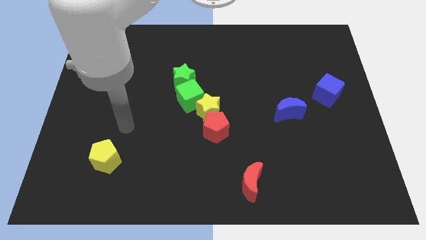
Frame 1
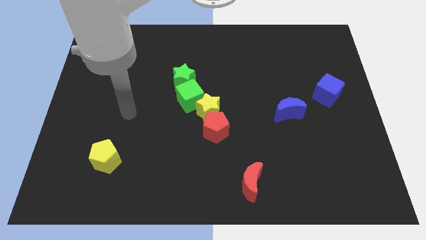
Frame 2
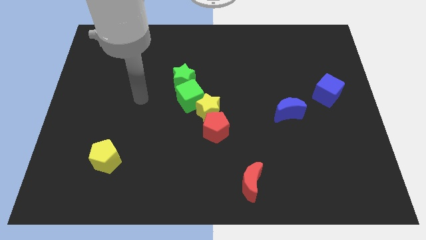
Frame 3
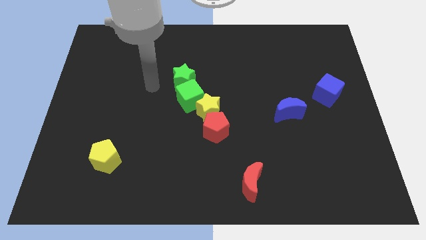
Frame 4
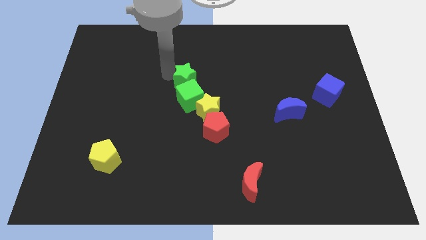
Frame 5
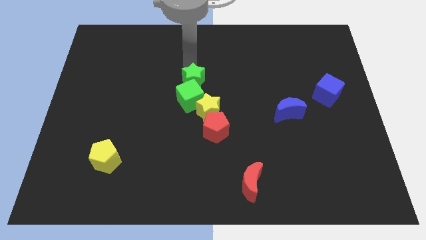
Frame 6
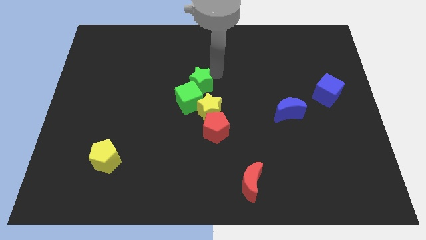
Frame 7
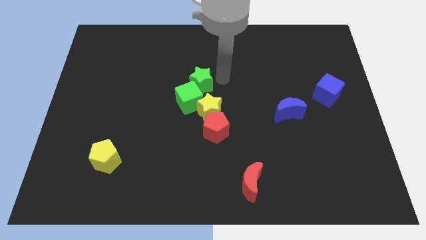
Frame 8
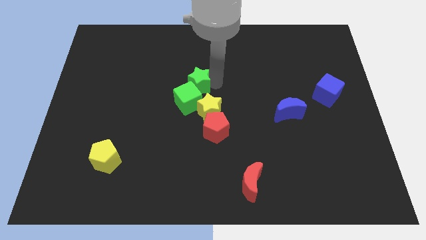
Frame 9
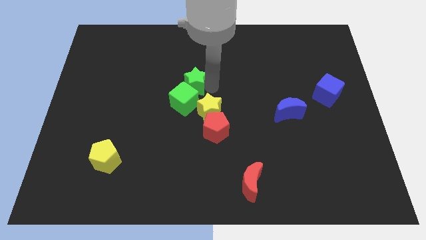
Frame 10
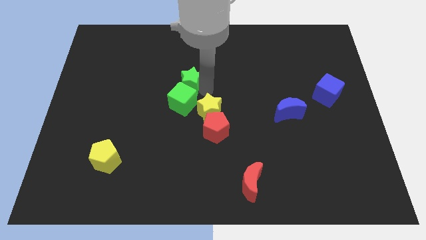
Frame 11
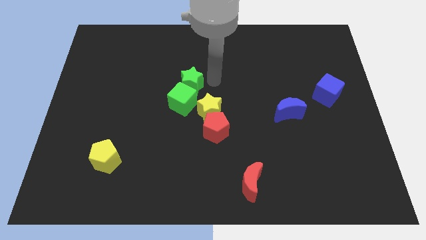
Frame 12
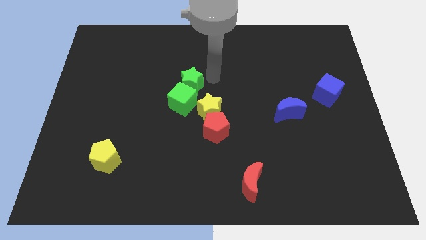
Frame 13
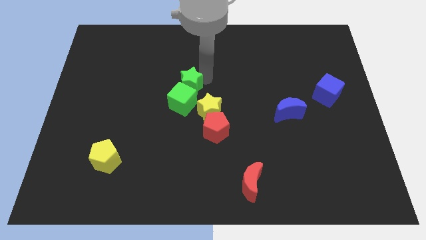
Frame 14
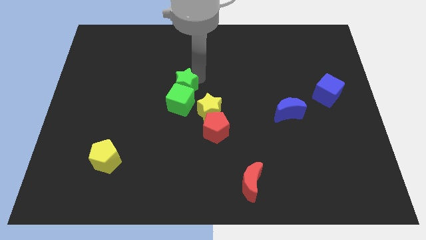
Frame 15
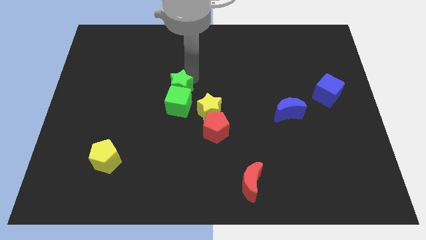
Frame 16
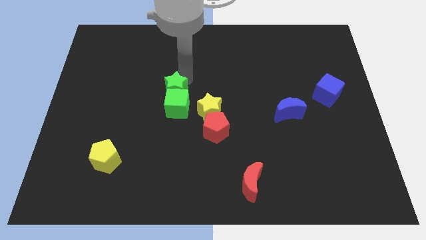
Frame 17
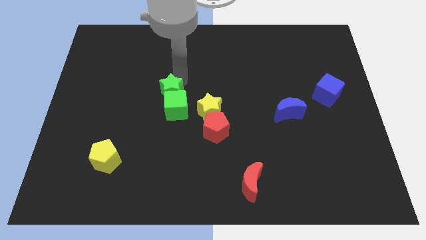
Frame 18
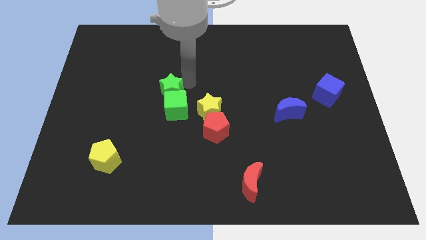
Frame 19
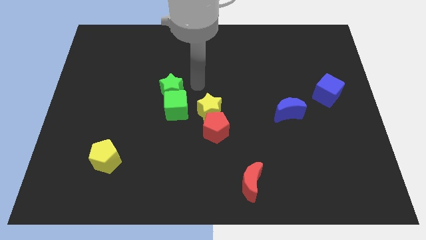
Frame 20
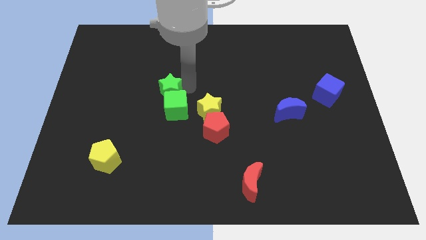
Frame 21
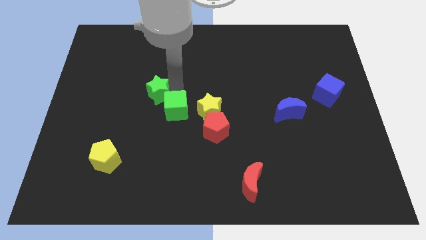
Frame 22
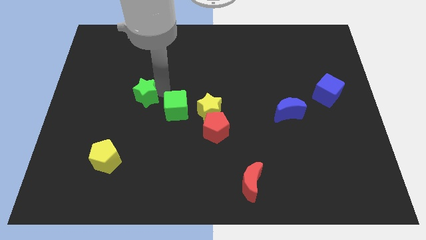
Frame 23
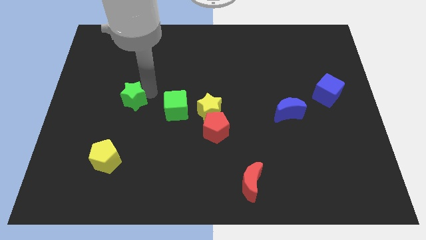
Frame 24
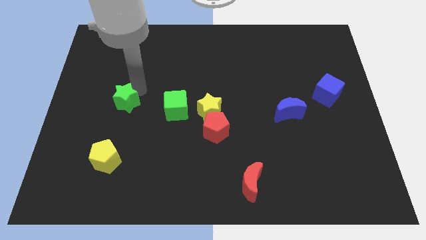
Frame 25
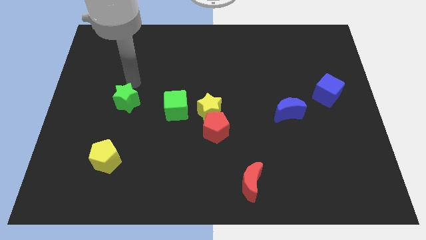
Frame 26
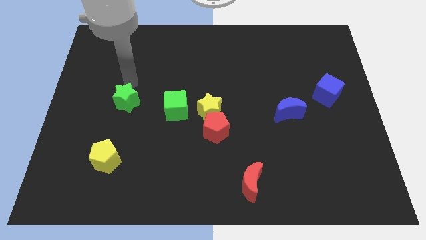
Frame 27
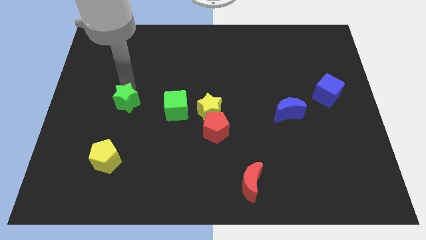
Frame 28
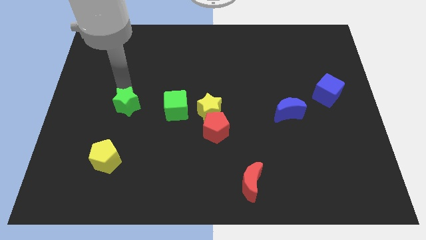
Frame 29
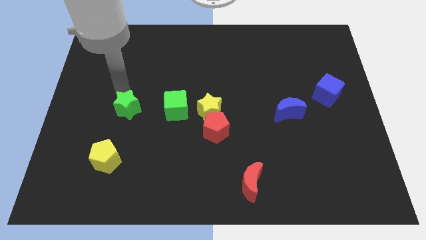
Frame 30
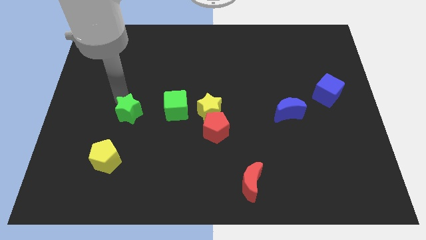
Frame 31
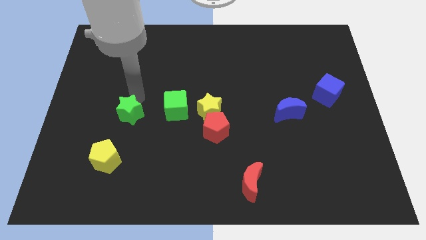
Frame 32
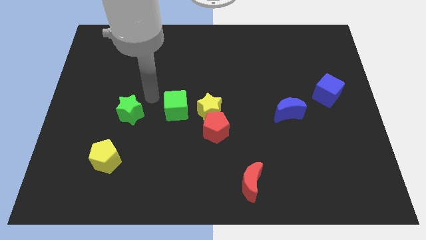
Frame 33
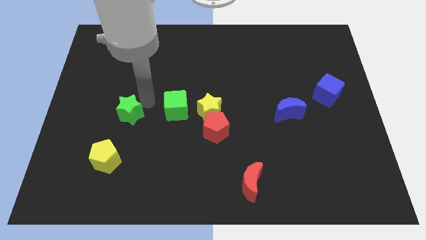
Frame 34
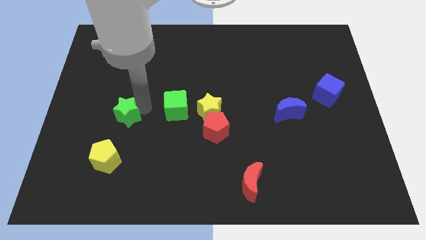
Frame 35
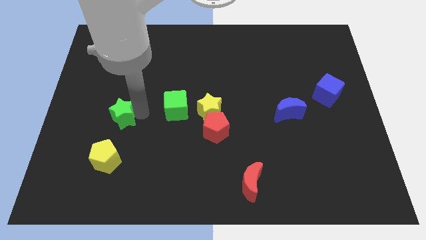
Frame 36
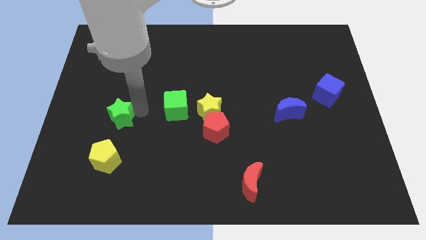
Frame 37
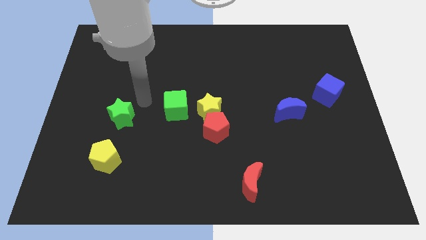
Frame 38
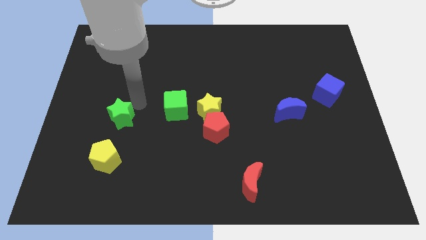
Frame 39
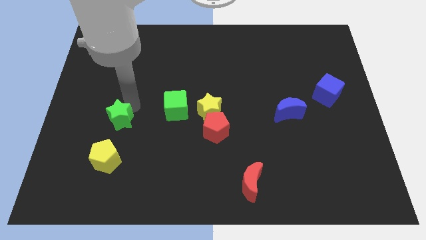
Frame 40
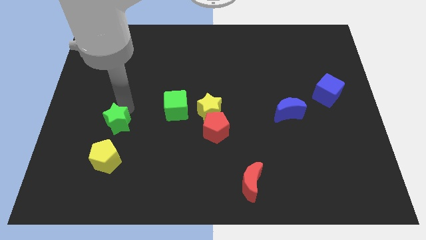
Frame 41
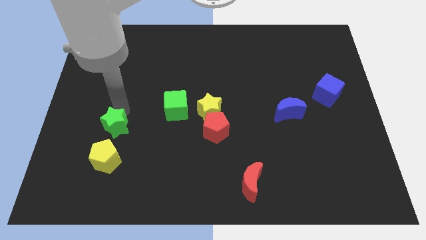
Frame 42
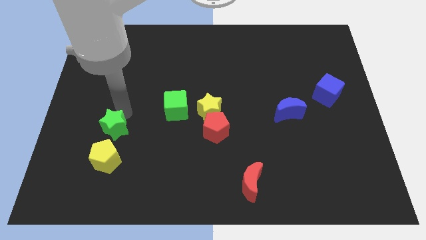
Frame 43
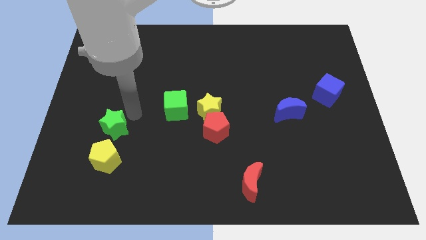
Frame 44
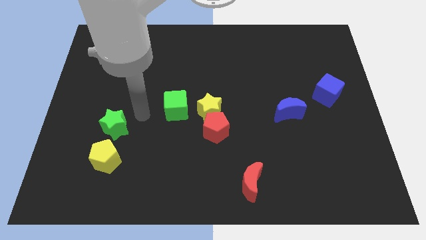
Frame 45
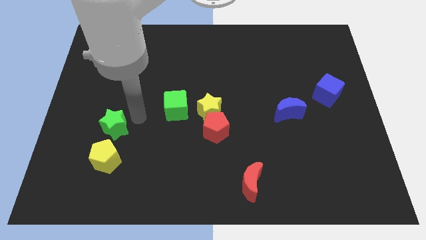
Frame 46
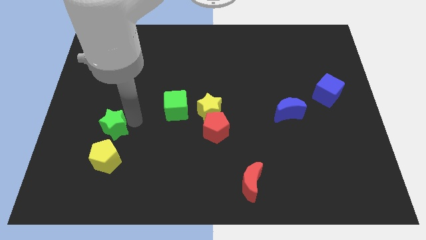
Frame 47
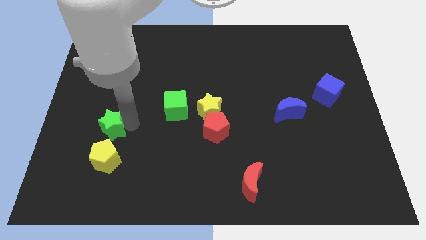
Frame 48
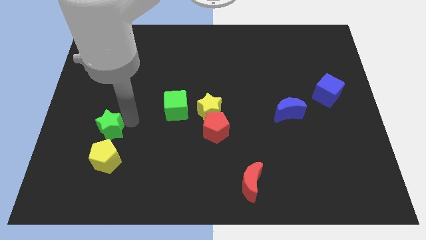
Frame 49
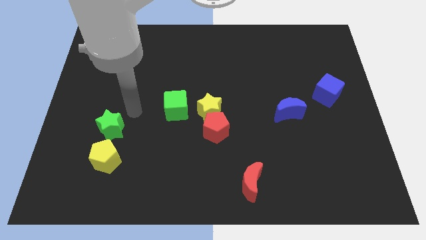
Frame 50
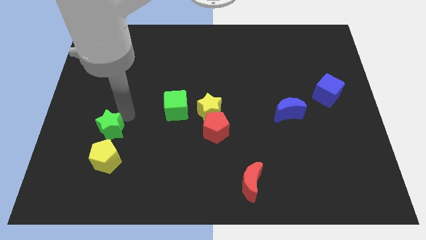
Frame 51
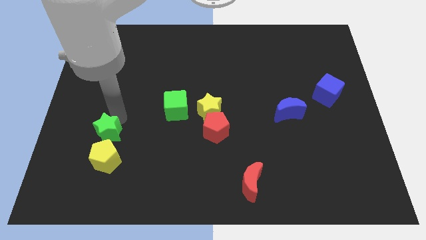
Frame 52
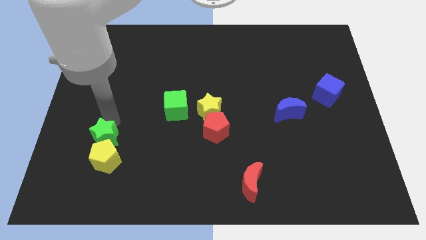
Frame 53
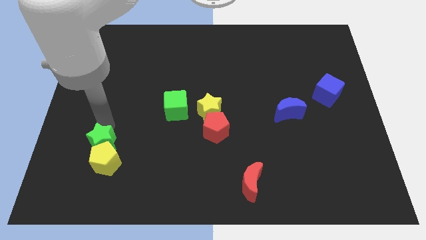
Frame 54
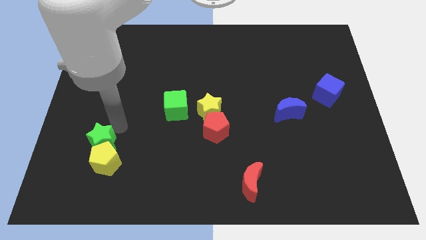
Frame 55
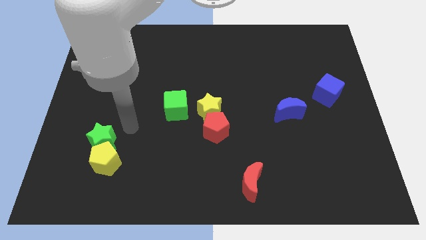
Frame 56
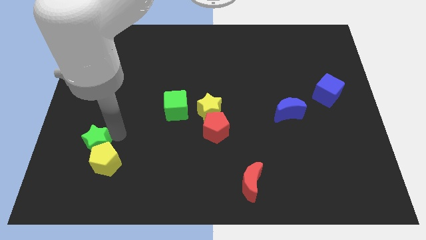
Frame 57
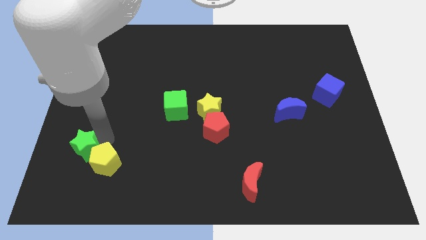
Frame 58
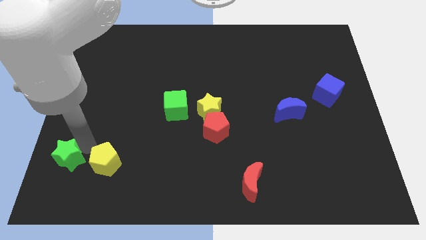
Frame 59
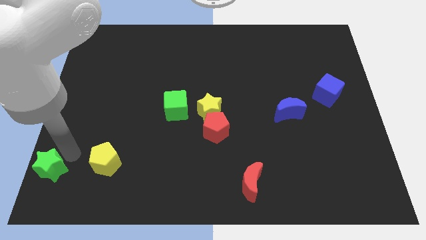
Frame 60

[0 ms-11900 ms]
move the green star to the bottom left

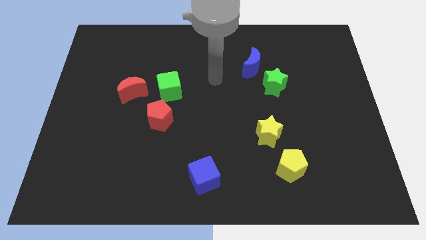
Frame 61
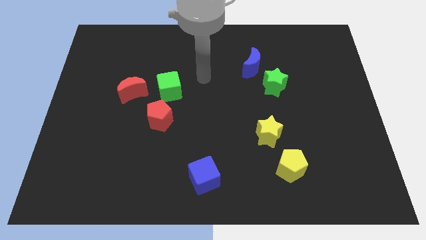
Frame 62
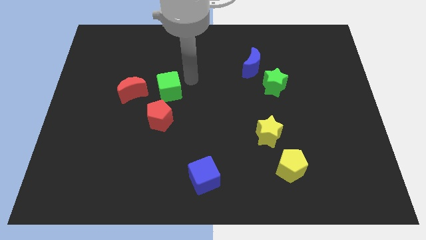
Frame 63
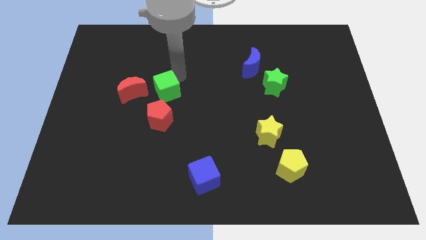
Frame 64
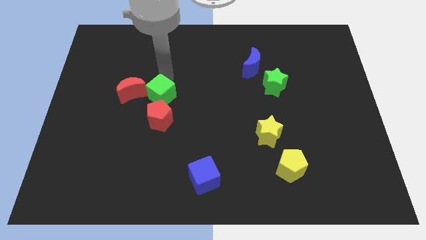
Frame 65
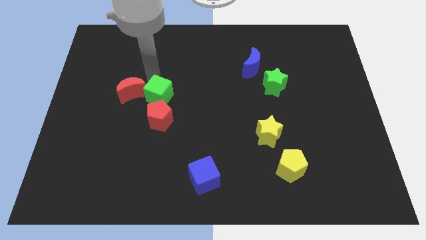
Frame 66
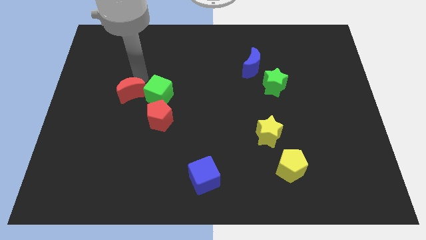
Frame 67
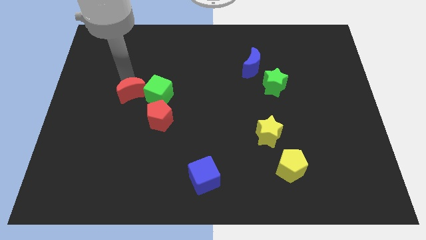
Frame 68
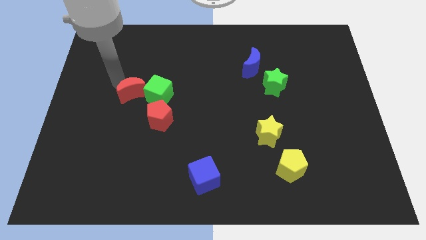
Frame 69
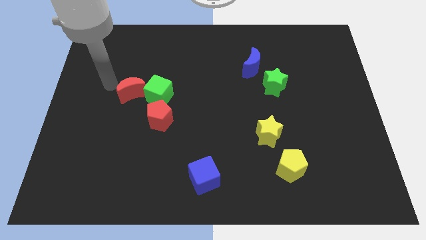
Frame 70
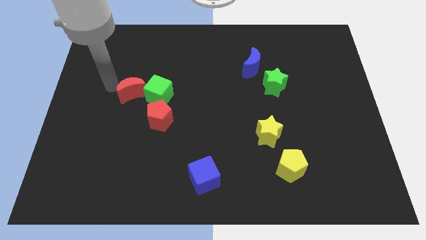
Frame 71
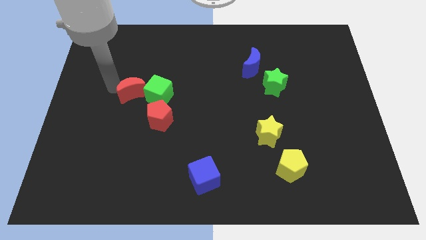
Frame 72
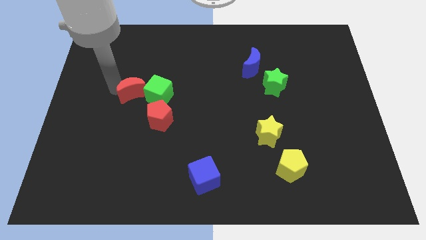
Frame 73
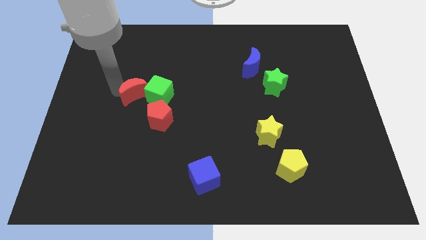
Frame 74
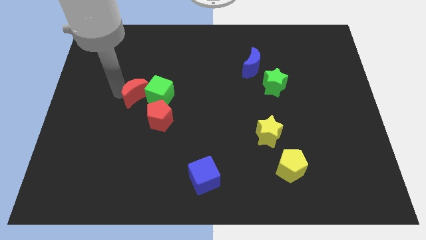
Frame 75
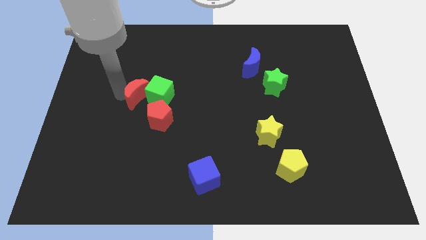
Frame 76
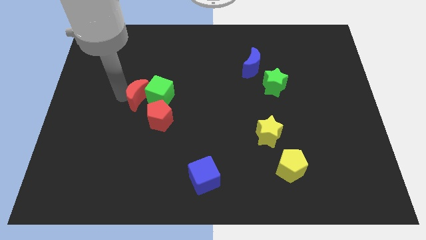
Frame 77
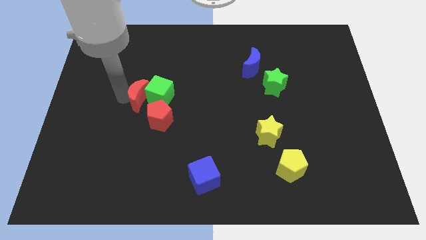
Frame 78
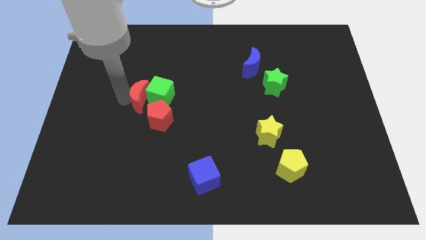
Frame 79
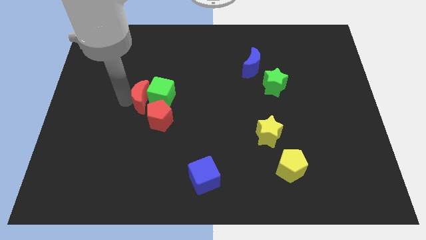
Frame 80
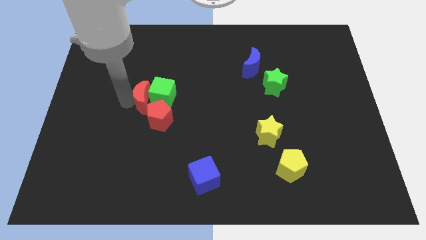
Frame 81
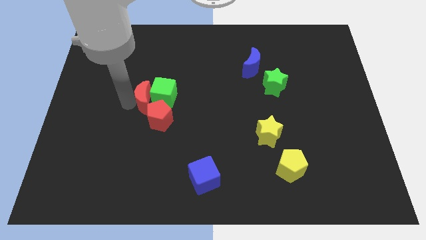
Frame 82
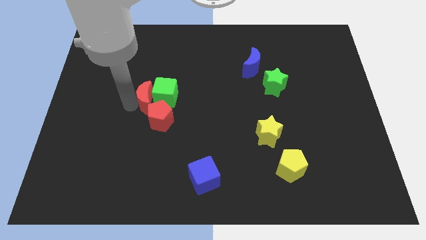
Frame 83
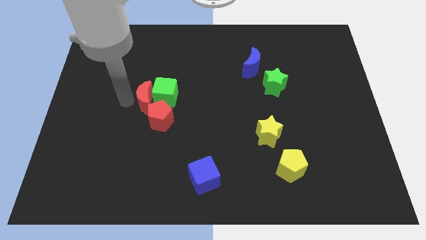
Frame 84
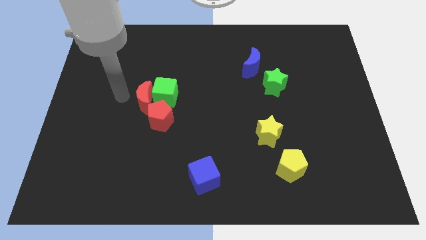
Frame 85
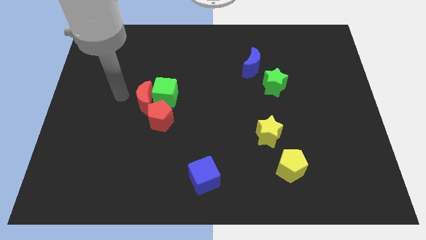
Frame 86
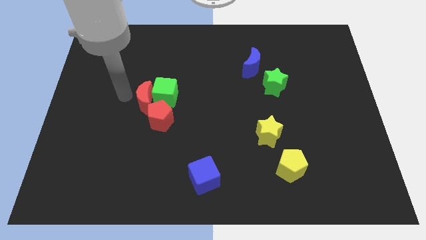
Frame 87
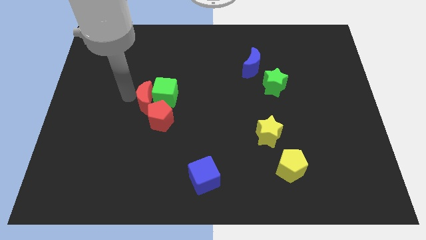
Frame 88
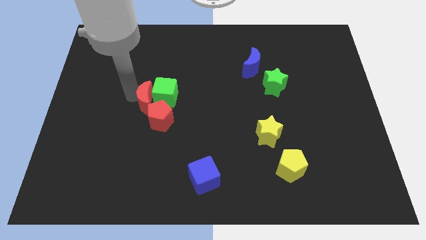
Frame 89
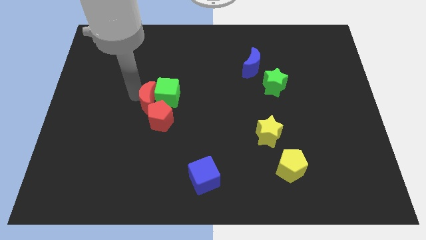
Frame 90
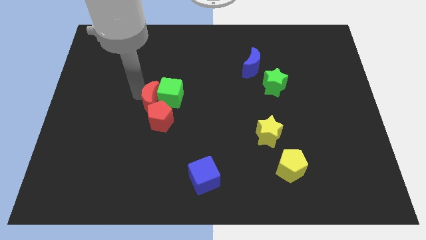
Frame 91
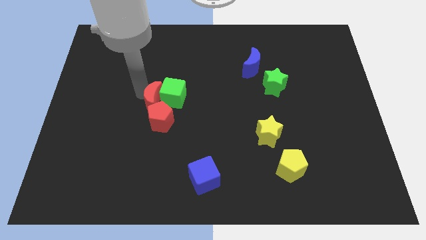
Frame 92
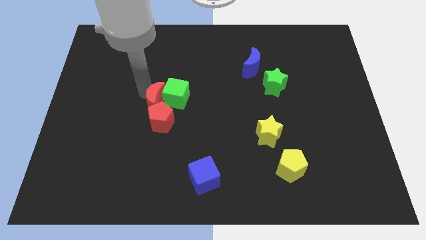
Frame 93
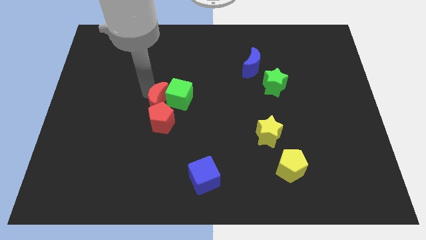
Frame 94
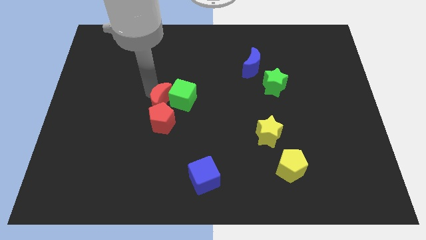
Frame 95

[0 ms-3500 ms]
slide the red moon to the center of the board
